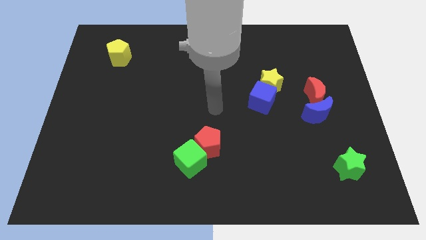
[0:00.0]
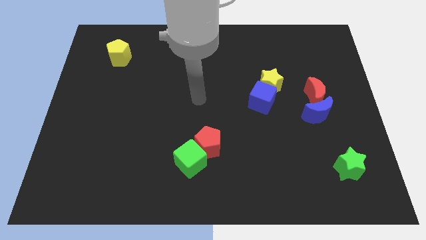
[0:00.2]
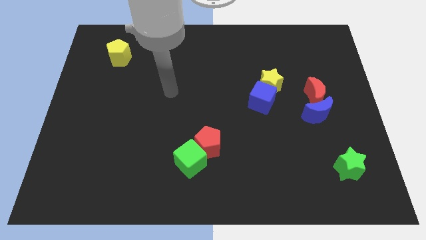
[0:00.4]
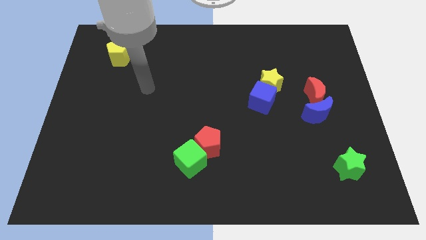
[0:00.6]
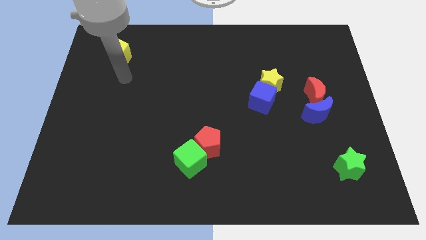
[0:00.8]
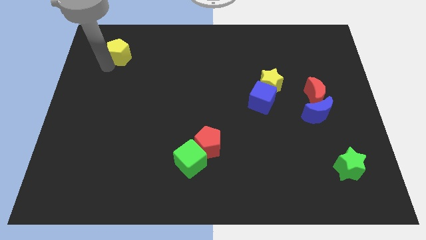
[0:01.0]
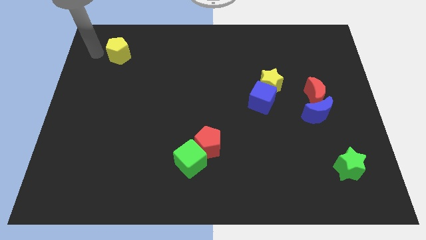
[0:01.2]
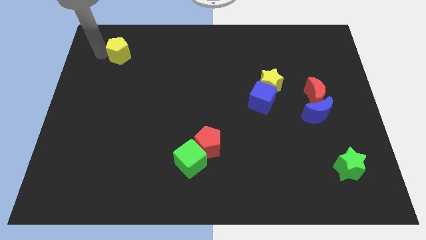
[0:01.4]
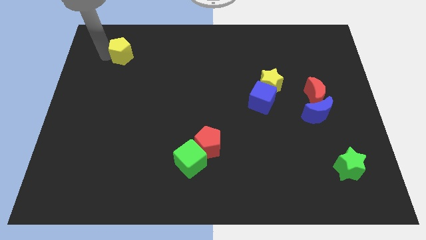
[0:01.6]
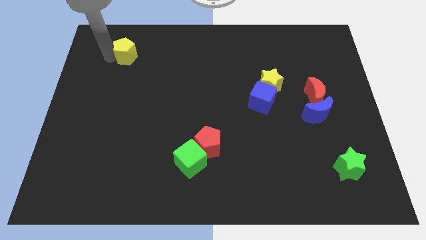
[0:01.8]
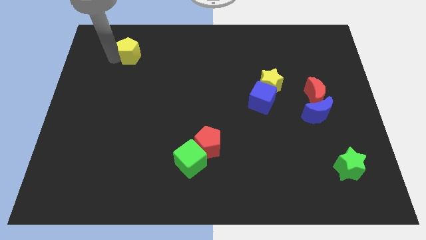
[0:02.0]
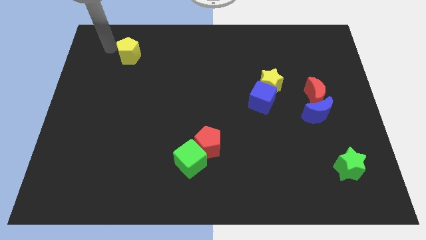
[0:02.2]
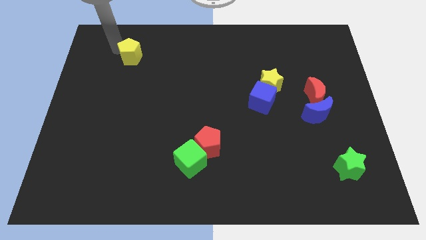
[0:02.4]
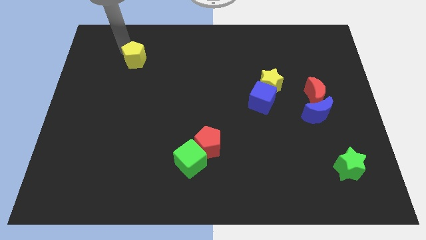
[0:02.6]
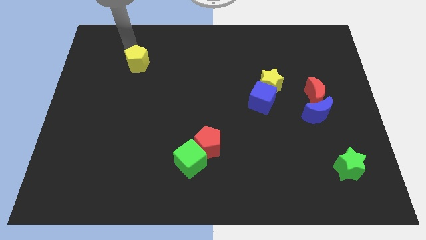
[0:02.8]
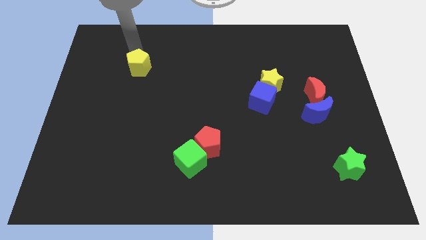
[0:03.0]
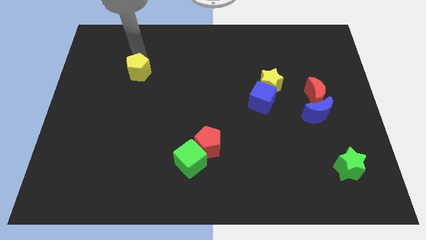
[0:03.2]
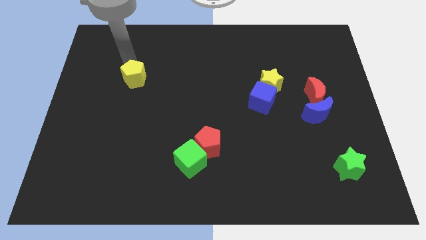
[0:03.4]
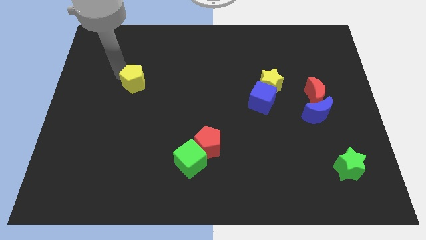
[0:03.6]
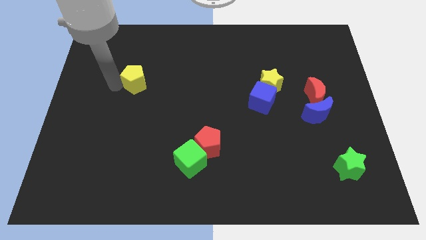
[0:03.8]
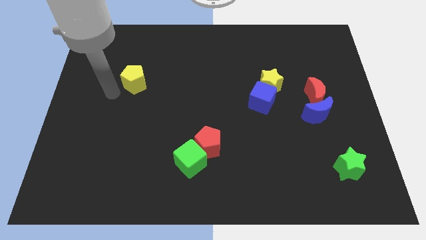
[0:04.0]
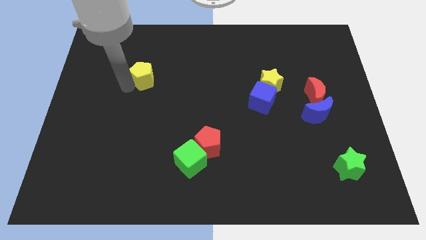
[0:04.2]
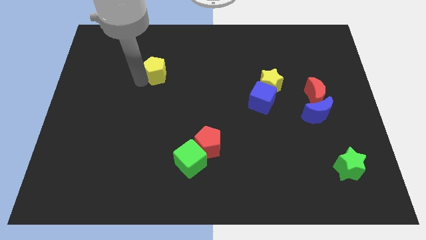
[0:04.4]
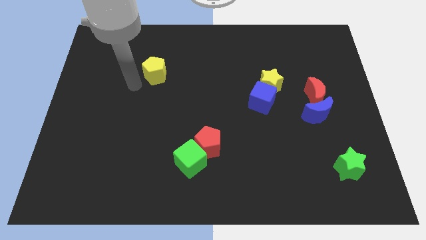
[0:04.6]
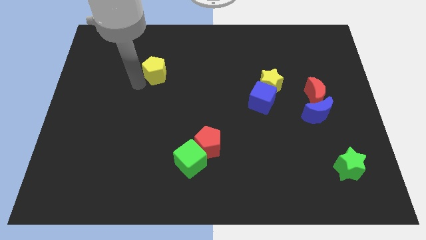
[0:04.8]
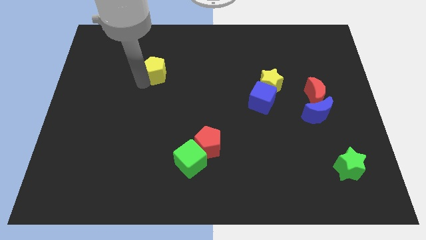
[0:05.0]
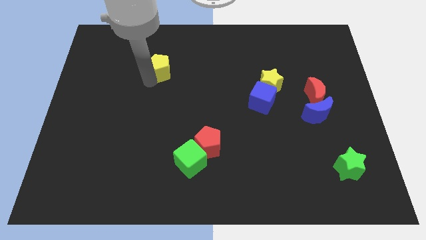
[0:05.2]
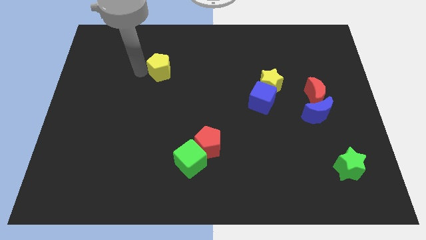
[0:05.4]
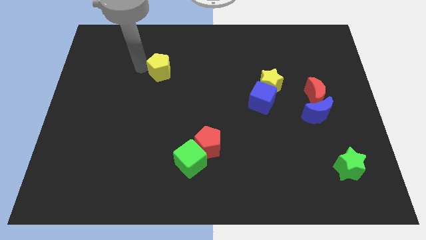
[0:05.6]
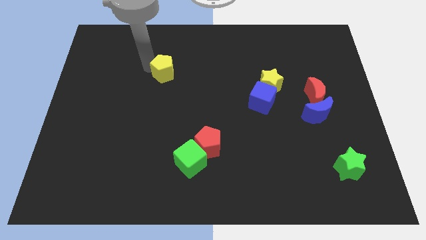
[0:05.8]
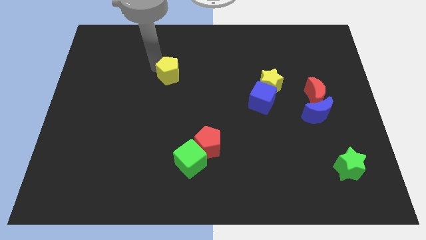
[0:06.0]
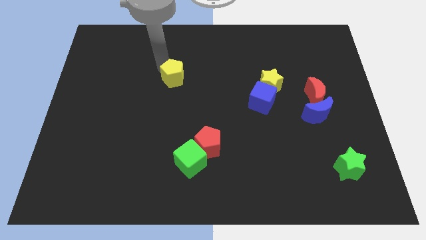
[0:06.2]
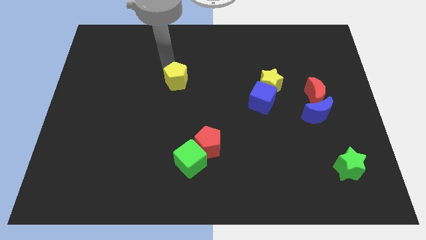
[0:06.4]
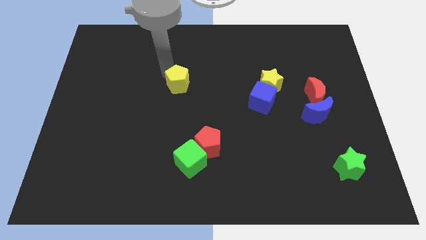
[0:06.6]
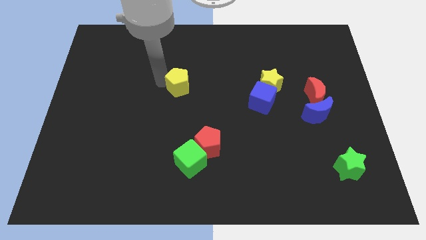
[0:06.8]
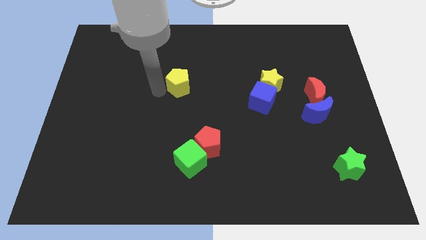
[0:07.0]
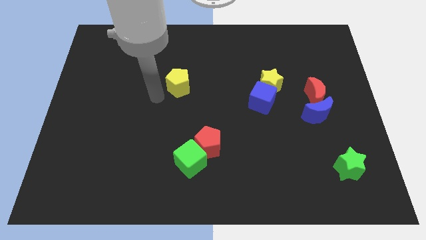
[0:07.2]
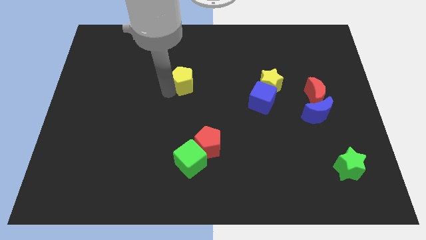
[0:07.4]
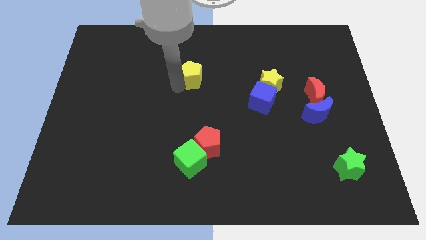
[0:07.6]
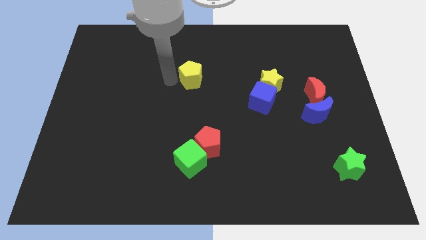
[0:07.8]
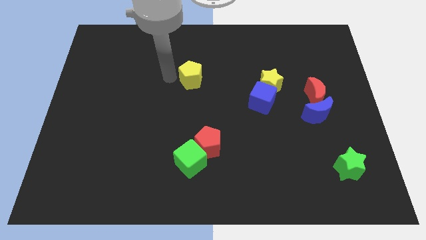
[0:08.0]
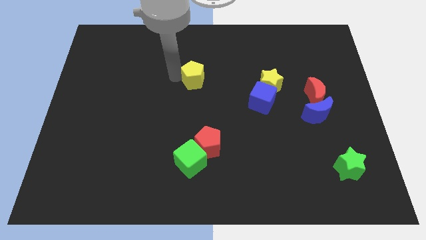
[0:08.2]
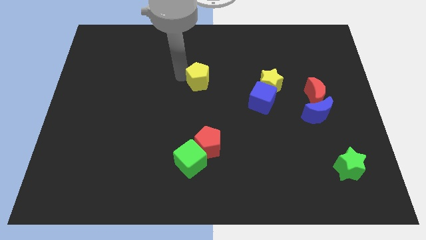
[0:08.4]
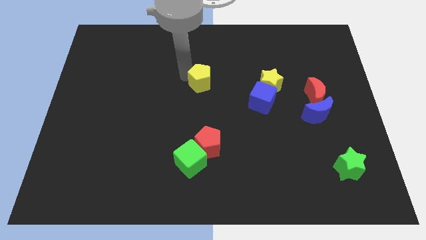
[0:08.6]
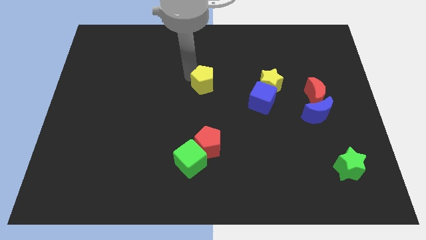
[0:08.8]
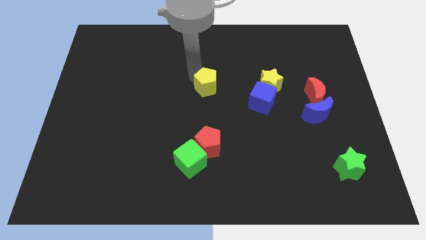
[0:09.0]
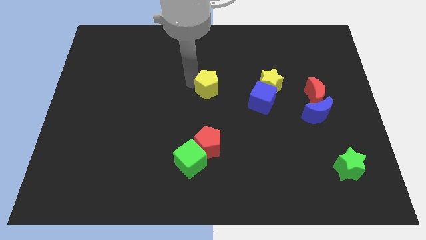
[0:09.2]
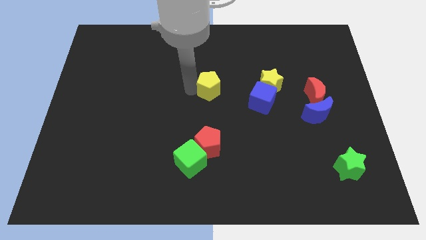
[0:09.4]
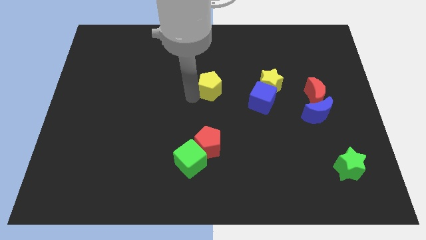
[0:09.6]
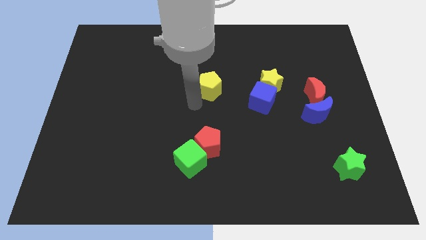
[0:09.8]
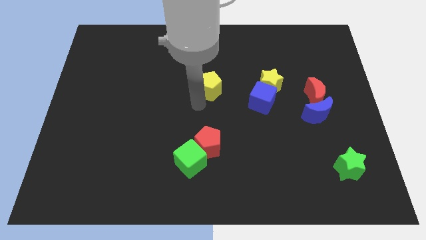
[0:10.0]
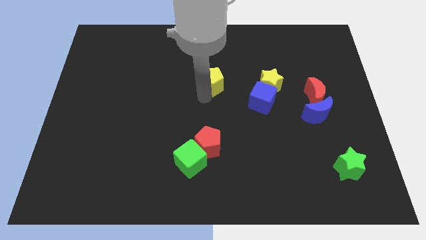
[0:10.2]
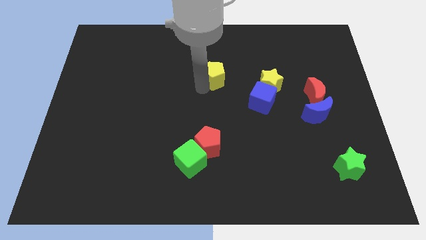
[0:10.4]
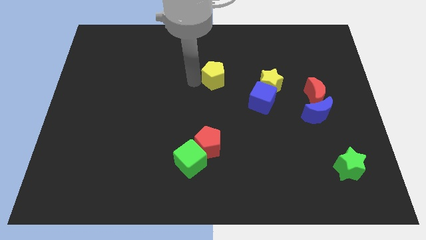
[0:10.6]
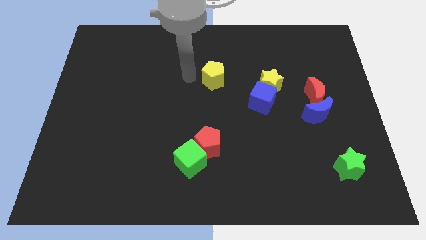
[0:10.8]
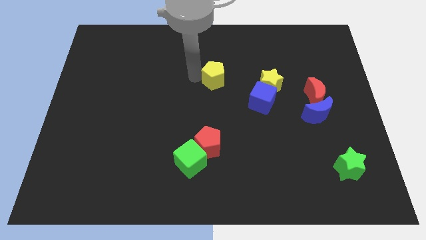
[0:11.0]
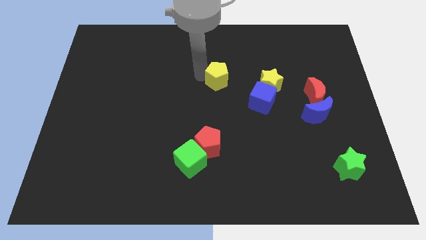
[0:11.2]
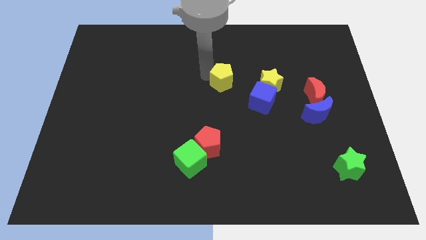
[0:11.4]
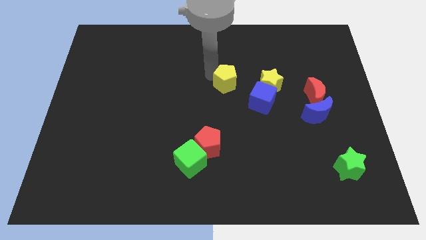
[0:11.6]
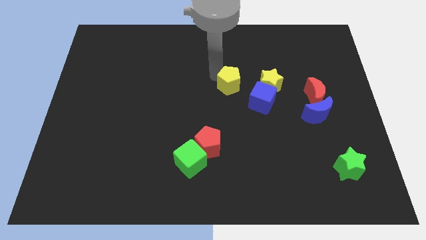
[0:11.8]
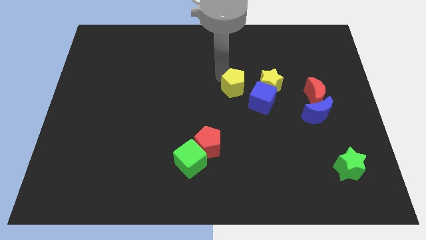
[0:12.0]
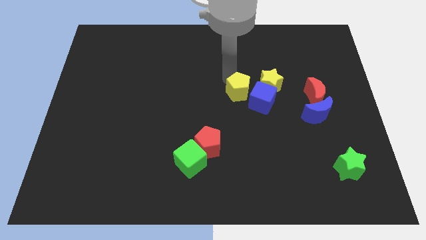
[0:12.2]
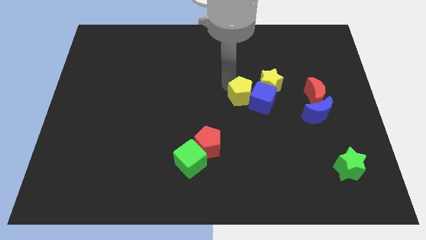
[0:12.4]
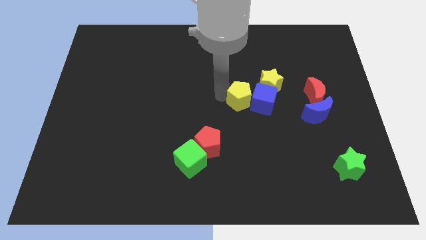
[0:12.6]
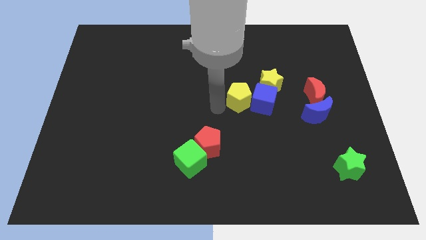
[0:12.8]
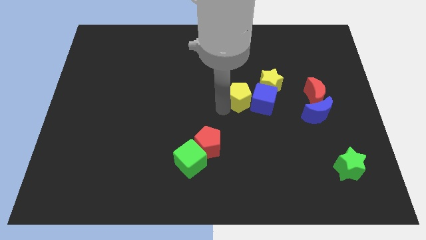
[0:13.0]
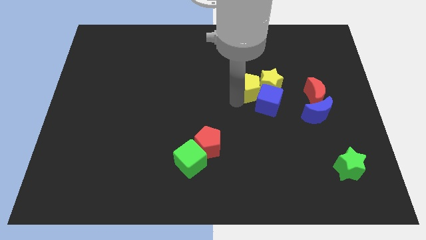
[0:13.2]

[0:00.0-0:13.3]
move the yellow pentagon close to the yellow star

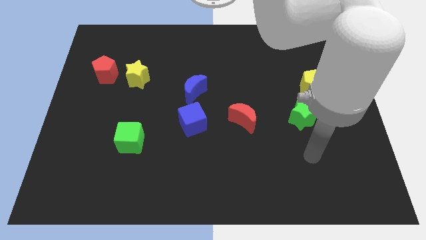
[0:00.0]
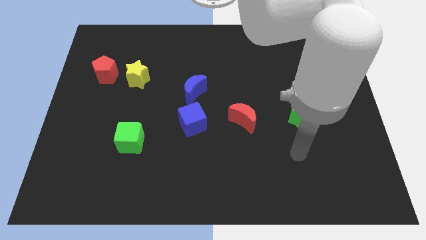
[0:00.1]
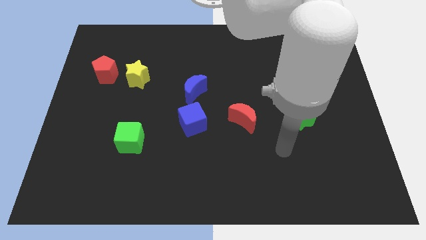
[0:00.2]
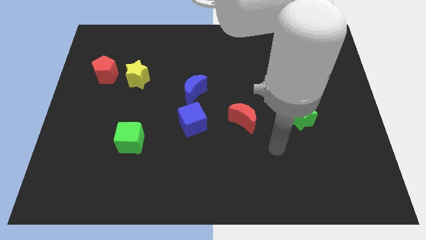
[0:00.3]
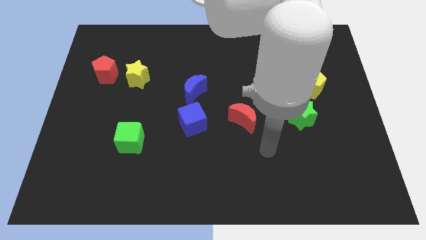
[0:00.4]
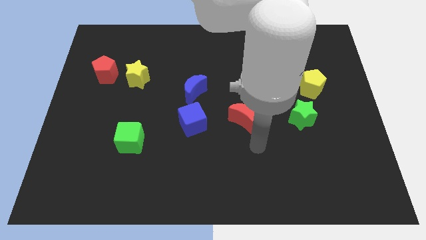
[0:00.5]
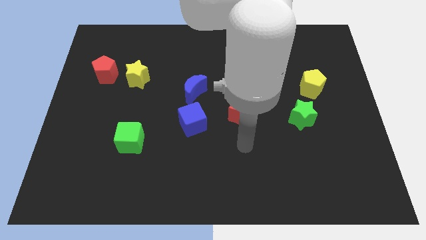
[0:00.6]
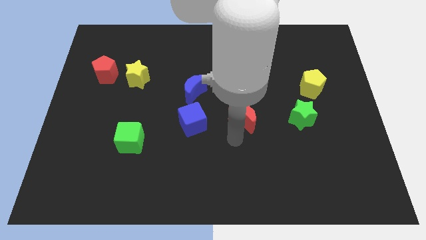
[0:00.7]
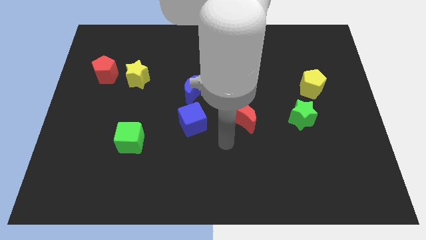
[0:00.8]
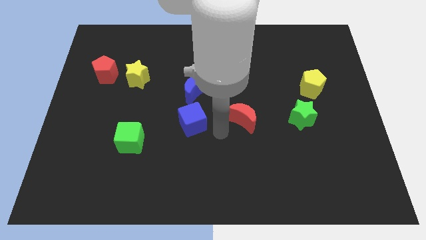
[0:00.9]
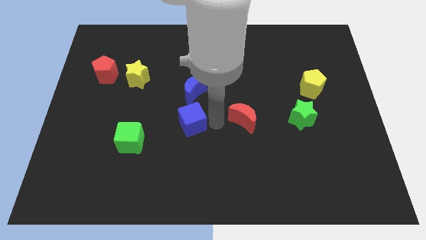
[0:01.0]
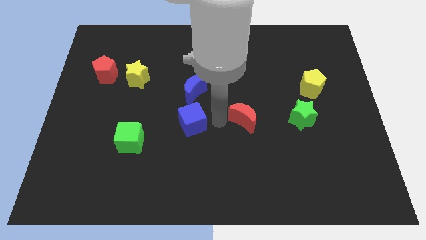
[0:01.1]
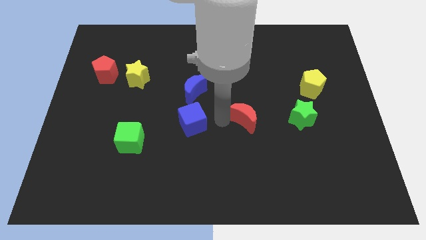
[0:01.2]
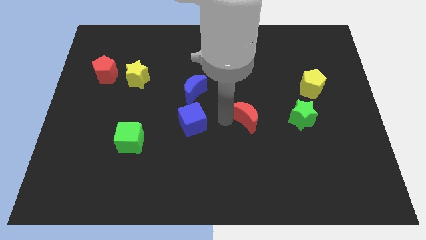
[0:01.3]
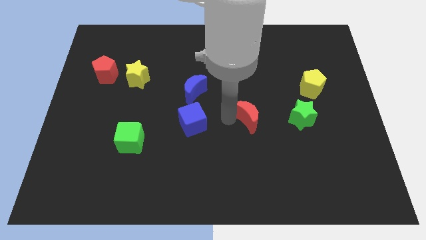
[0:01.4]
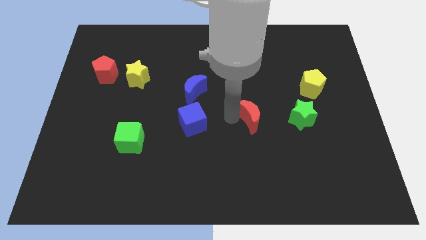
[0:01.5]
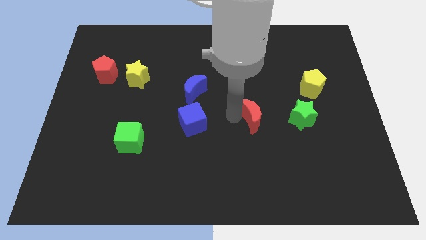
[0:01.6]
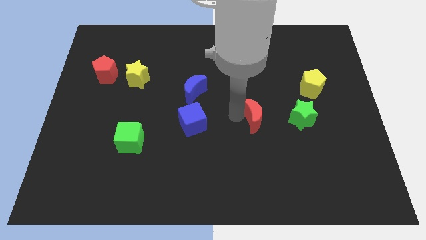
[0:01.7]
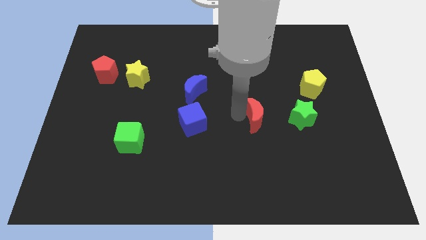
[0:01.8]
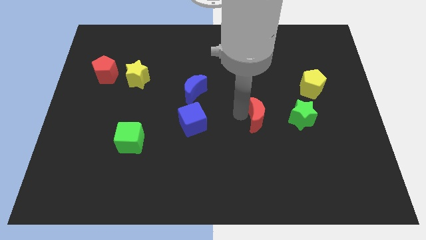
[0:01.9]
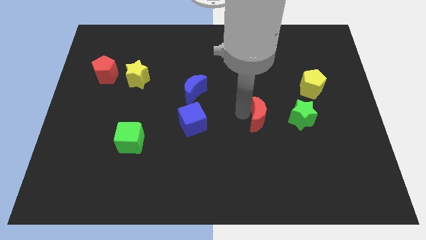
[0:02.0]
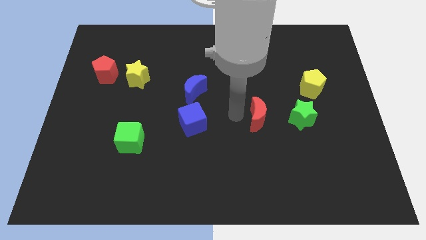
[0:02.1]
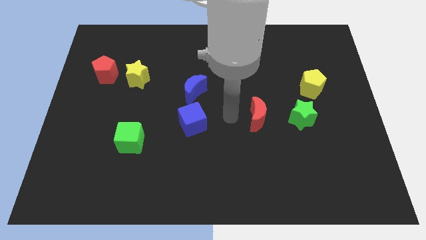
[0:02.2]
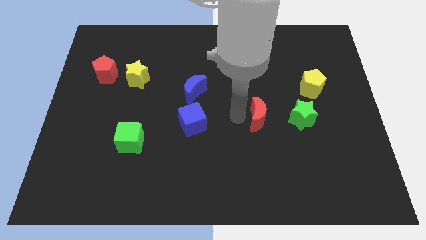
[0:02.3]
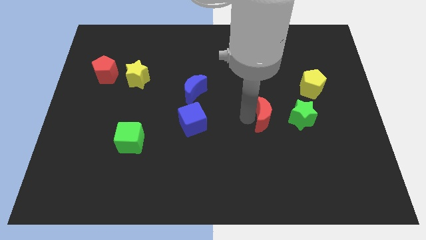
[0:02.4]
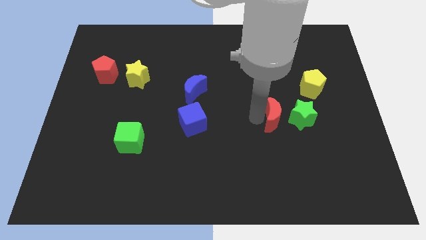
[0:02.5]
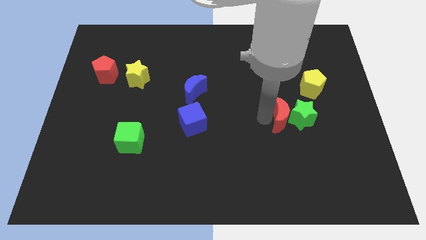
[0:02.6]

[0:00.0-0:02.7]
push the red moon to the green star
